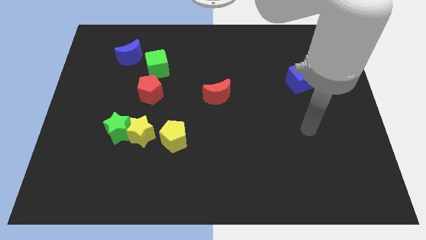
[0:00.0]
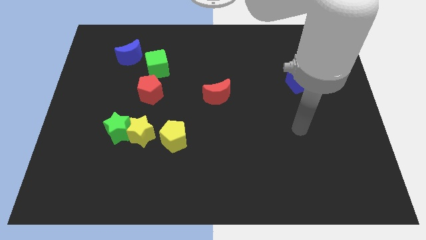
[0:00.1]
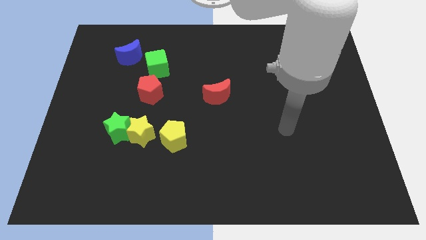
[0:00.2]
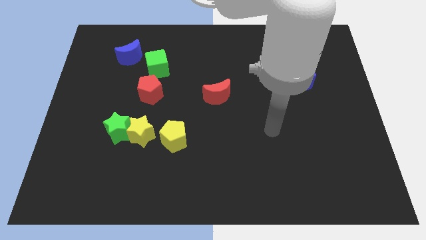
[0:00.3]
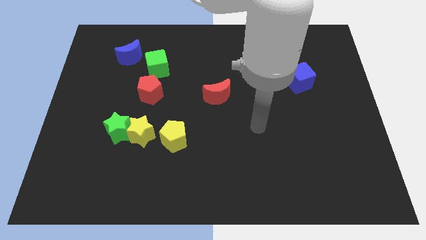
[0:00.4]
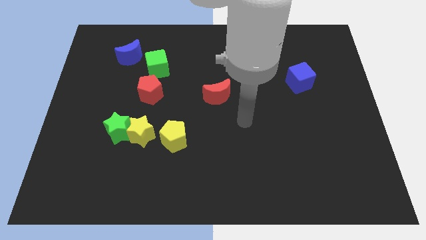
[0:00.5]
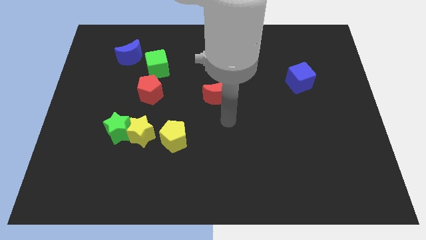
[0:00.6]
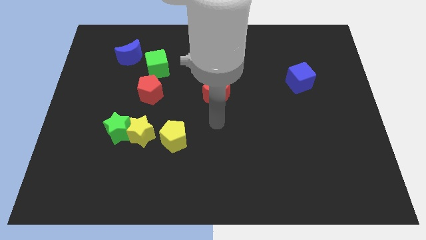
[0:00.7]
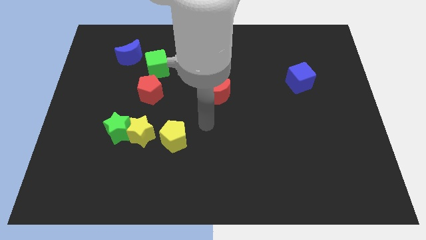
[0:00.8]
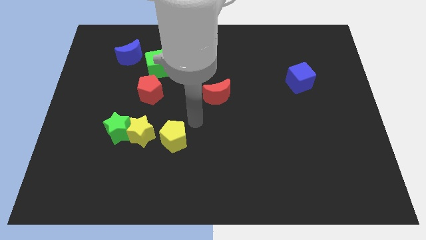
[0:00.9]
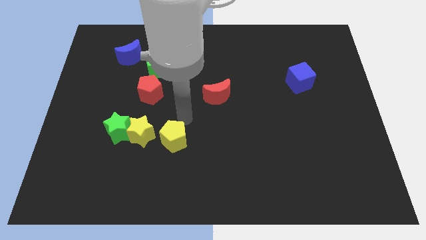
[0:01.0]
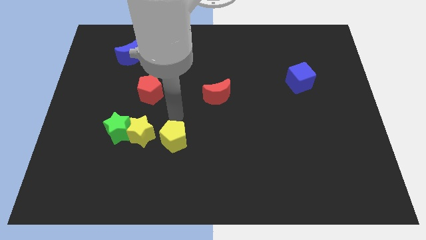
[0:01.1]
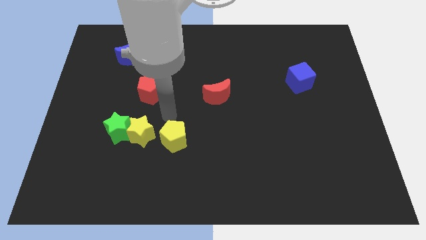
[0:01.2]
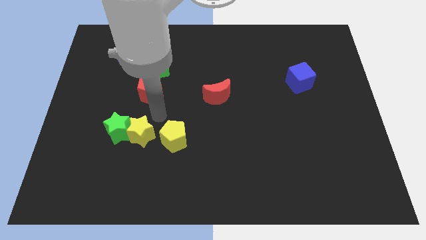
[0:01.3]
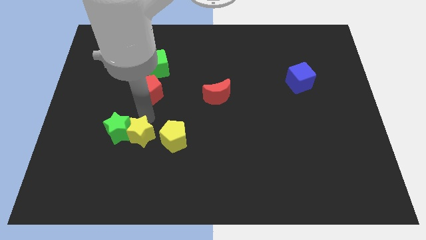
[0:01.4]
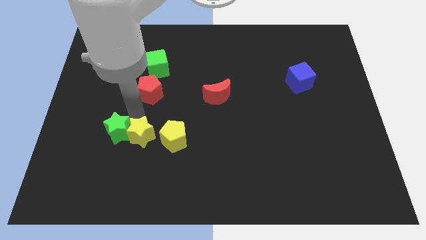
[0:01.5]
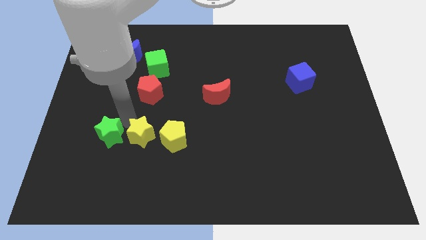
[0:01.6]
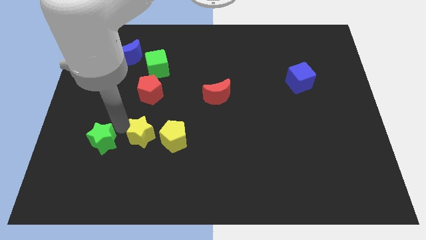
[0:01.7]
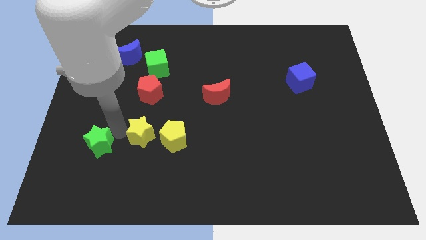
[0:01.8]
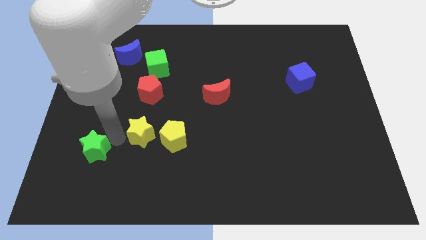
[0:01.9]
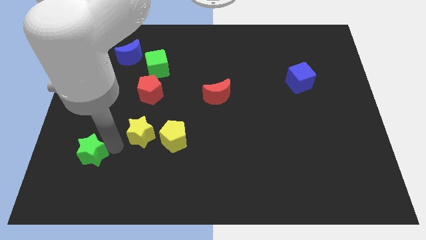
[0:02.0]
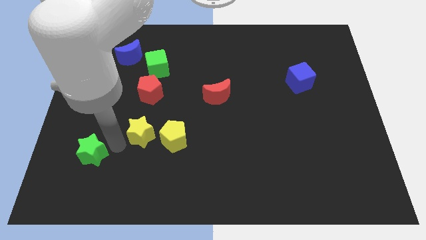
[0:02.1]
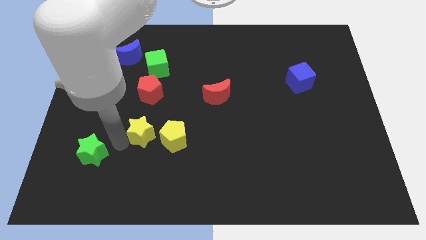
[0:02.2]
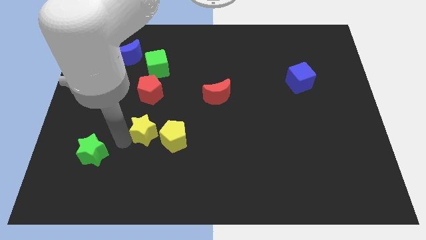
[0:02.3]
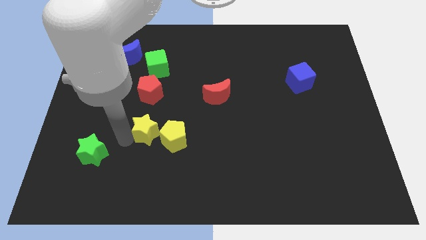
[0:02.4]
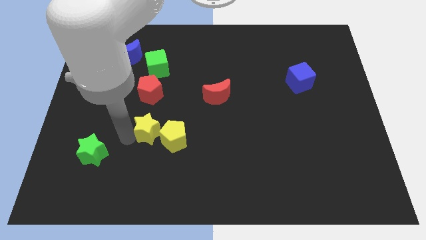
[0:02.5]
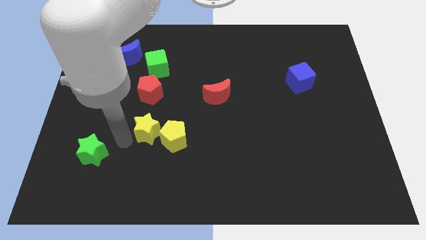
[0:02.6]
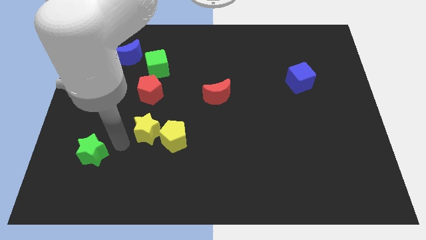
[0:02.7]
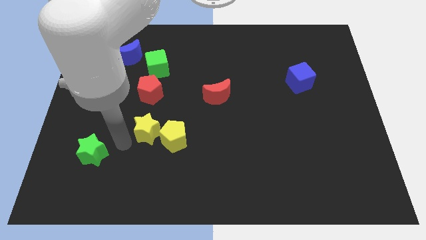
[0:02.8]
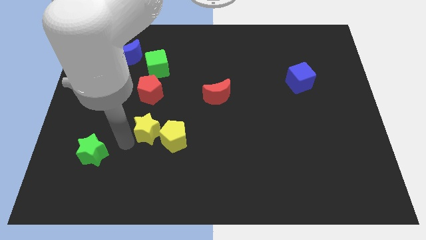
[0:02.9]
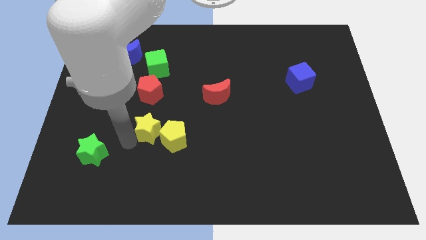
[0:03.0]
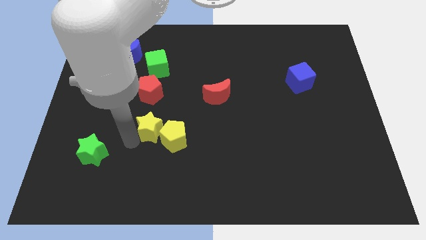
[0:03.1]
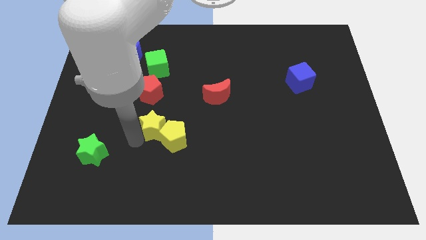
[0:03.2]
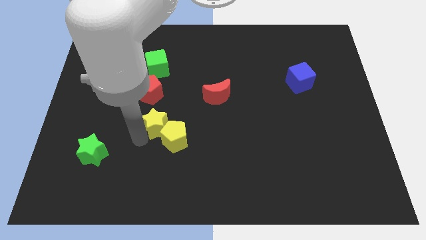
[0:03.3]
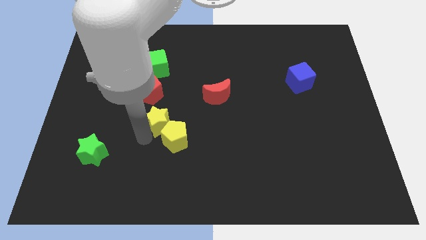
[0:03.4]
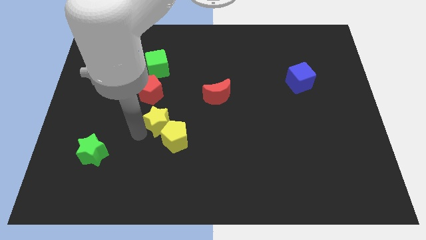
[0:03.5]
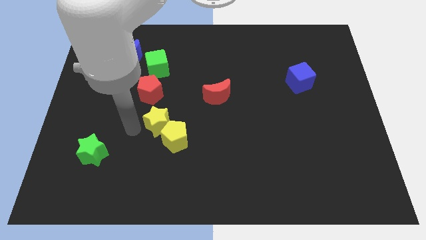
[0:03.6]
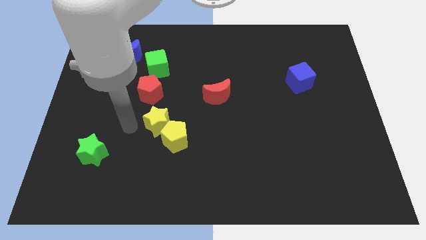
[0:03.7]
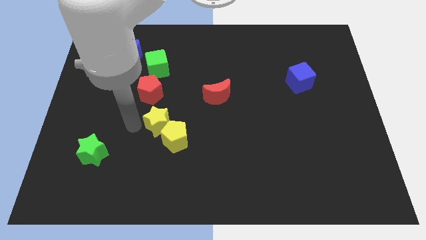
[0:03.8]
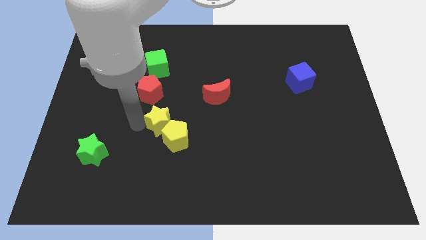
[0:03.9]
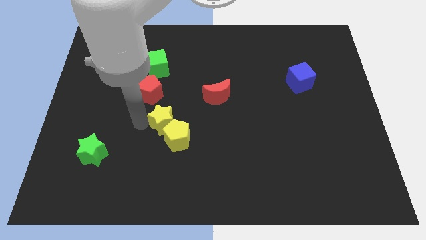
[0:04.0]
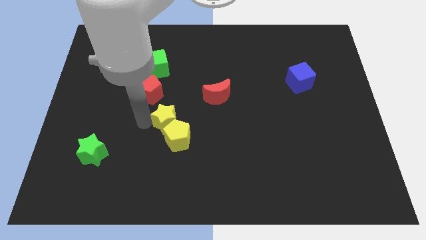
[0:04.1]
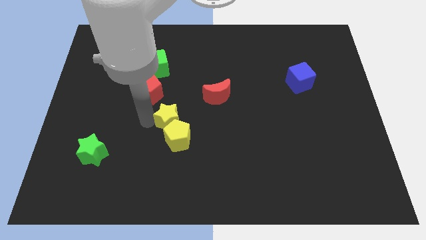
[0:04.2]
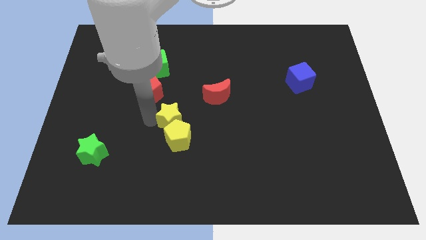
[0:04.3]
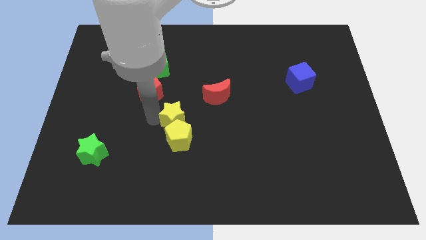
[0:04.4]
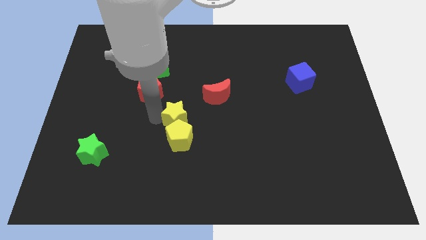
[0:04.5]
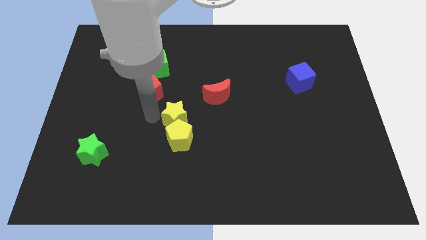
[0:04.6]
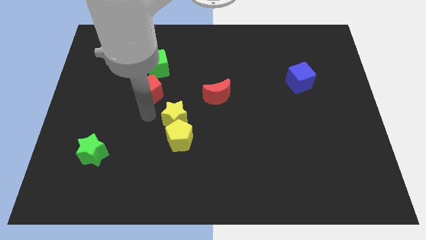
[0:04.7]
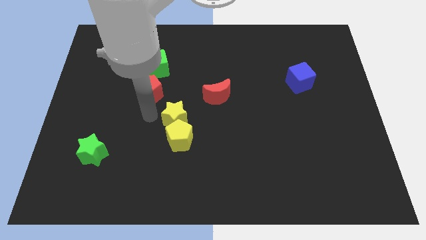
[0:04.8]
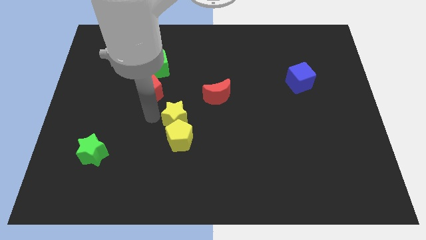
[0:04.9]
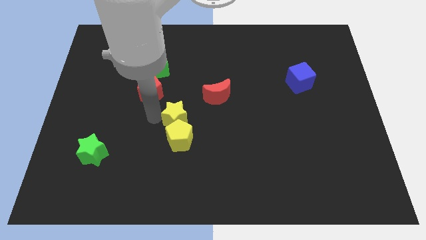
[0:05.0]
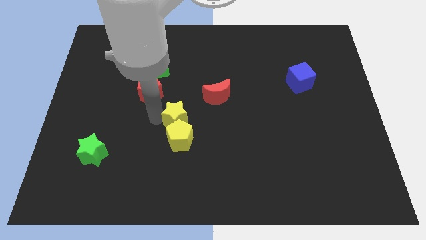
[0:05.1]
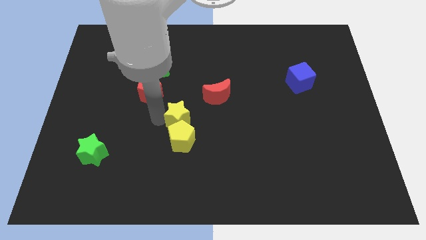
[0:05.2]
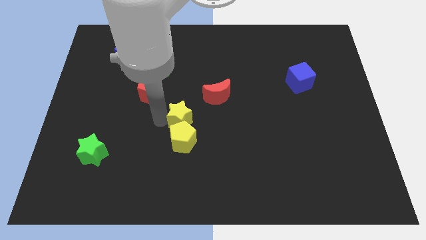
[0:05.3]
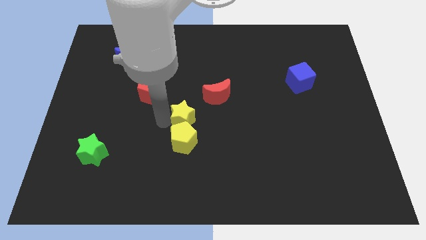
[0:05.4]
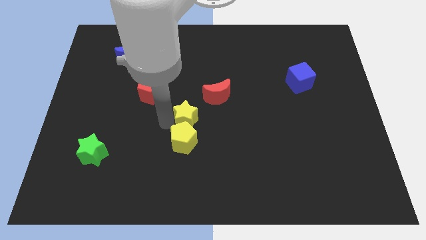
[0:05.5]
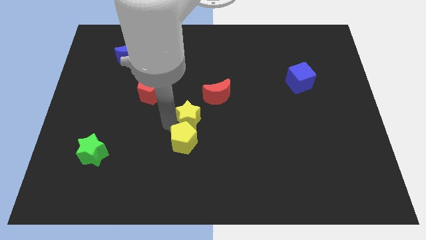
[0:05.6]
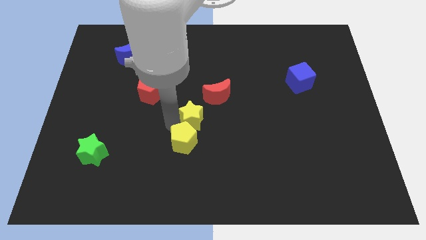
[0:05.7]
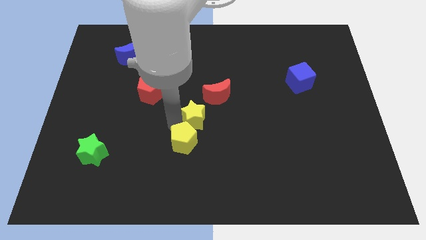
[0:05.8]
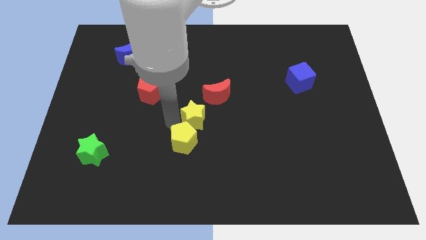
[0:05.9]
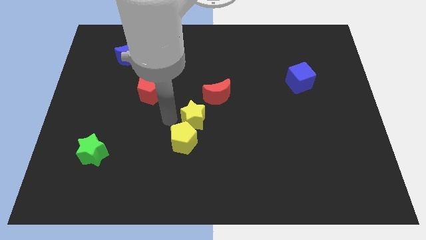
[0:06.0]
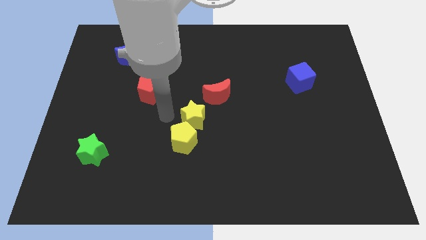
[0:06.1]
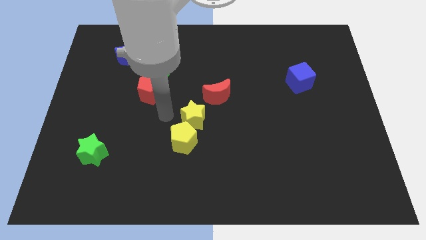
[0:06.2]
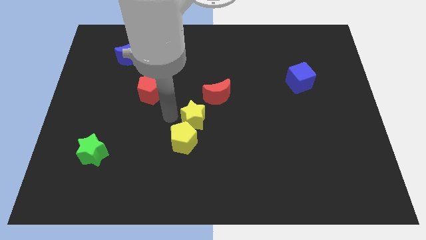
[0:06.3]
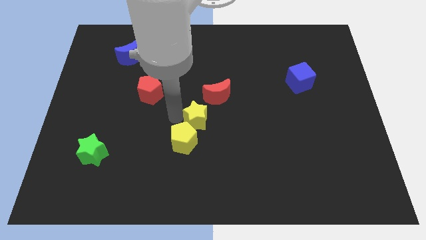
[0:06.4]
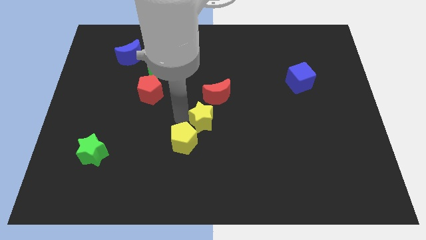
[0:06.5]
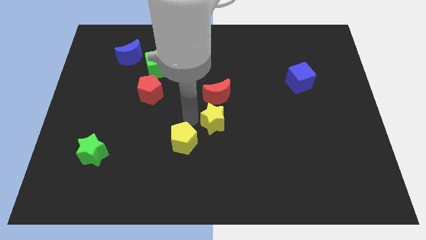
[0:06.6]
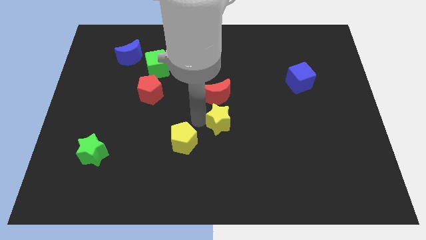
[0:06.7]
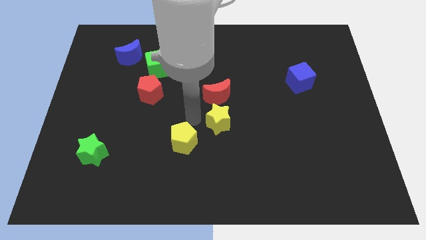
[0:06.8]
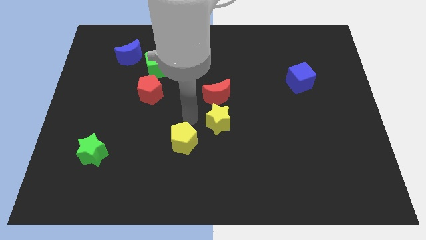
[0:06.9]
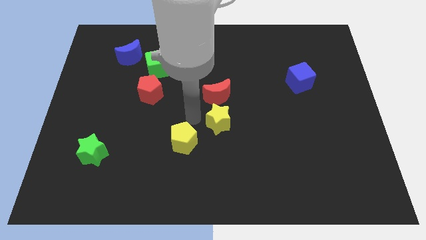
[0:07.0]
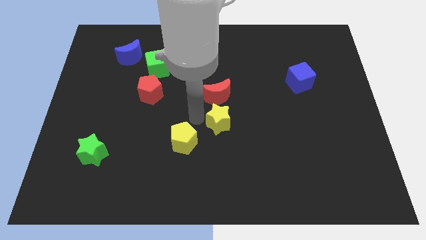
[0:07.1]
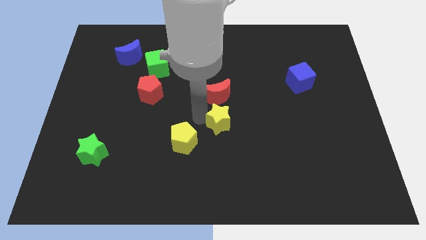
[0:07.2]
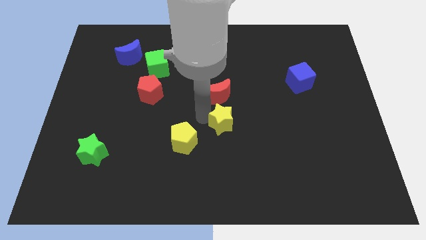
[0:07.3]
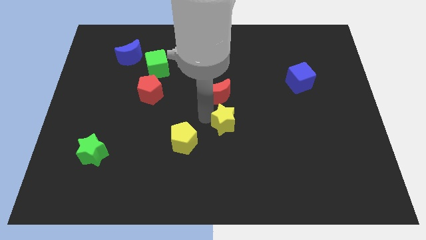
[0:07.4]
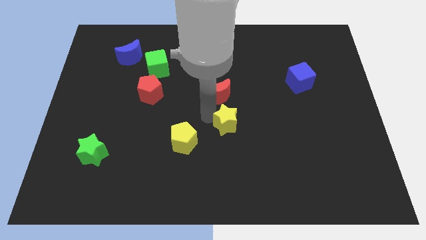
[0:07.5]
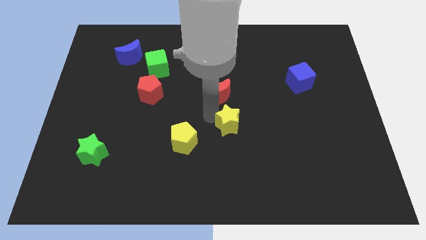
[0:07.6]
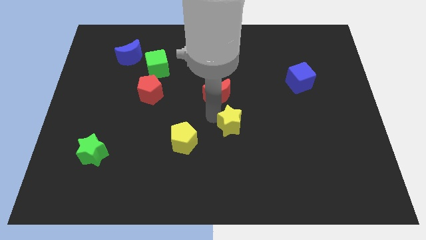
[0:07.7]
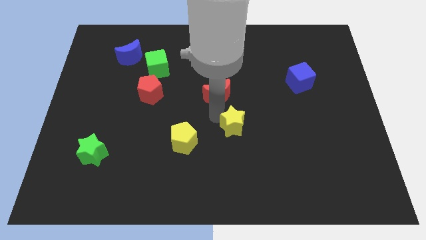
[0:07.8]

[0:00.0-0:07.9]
push the yellow star to the right

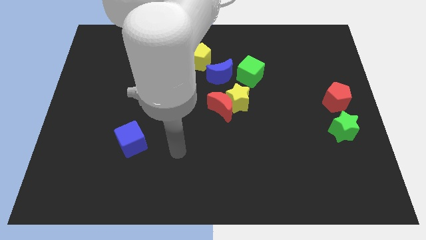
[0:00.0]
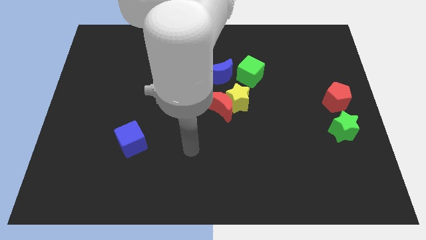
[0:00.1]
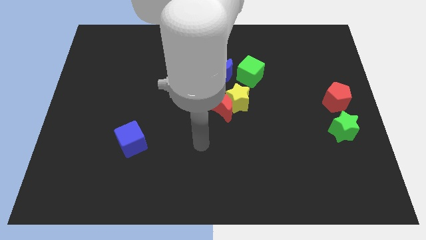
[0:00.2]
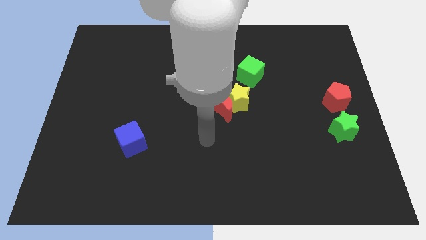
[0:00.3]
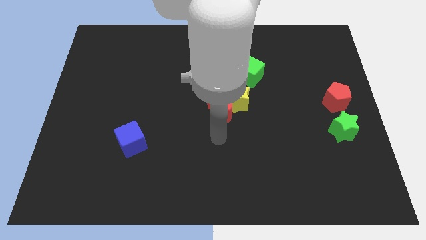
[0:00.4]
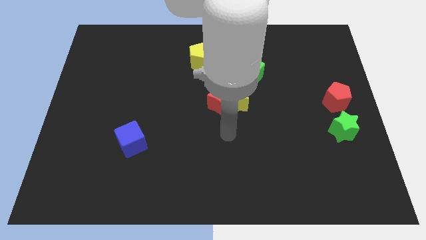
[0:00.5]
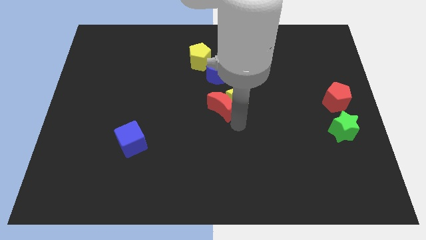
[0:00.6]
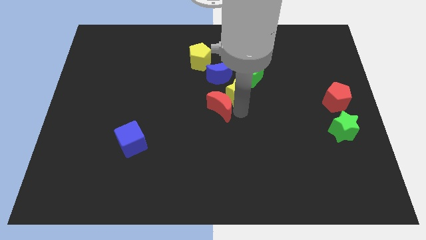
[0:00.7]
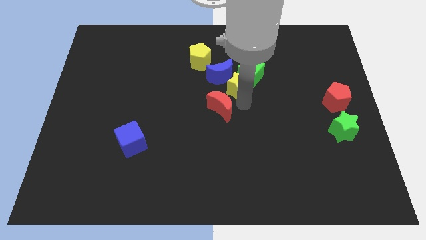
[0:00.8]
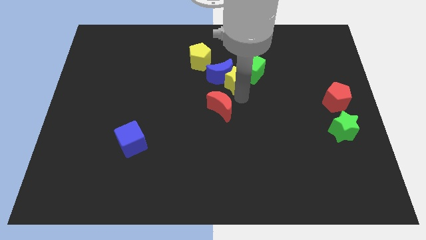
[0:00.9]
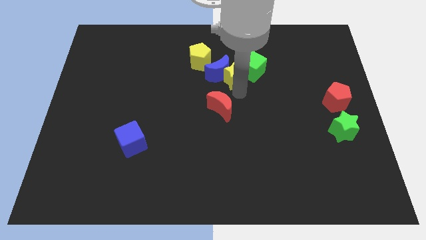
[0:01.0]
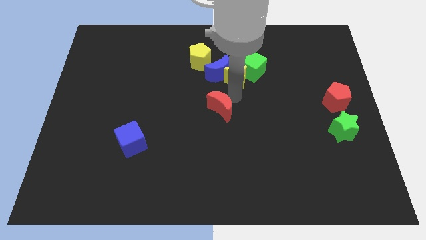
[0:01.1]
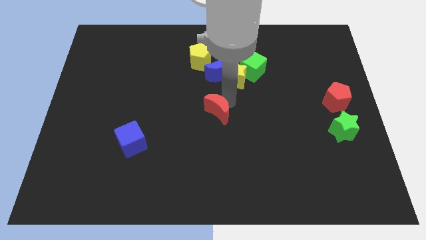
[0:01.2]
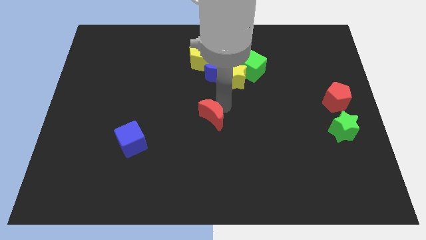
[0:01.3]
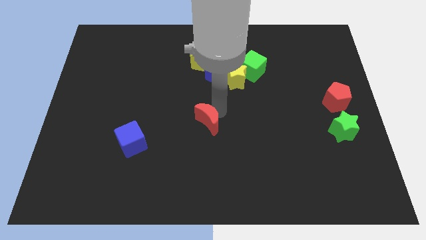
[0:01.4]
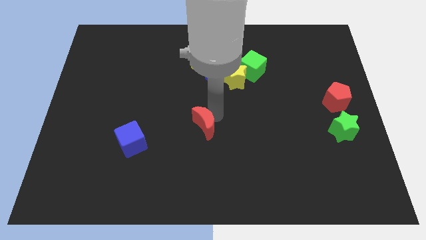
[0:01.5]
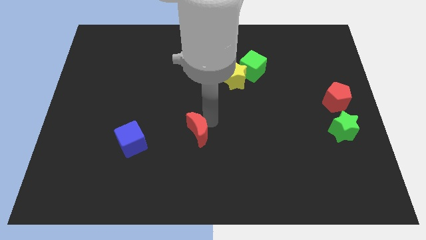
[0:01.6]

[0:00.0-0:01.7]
slide the red moon downwards and left a bit
